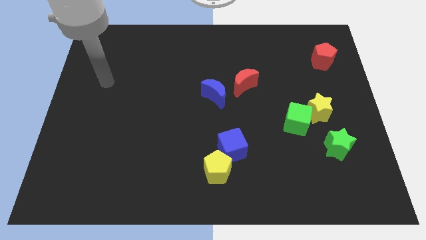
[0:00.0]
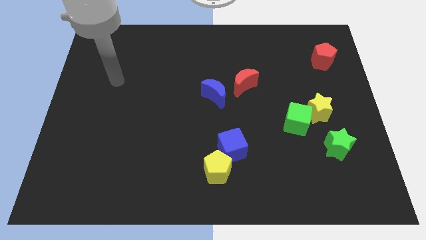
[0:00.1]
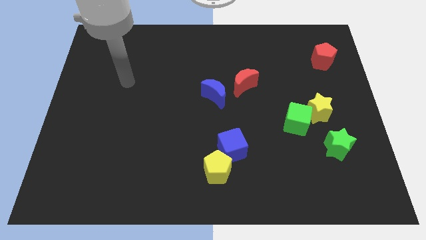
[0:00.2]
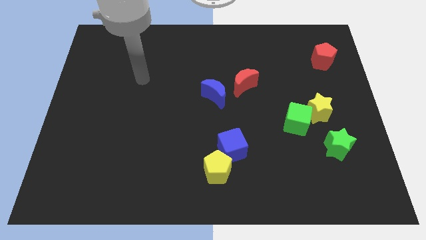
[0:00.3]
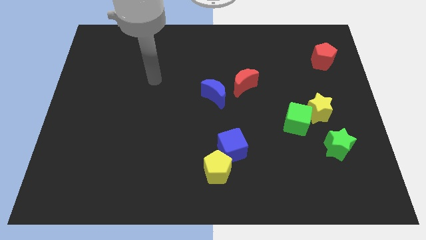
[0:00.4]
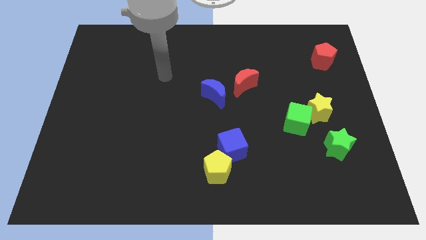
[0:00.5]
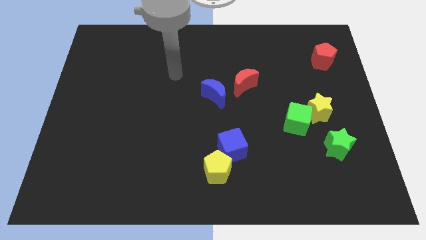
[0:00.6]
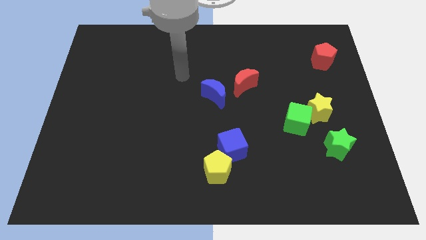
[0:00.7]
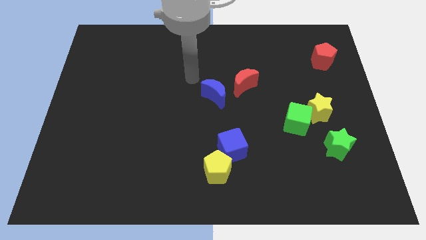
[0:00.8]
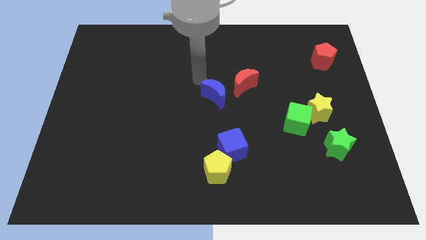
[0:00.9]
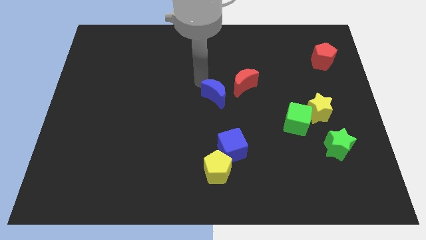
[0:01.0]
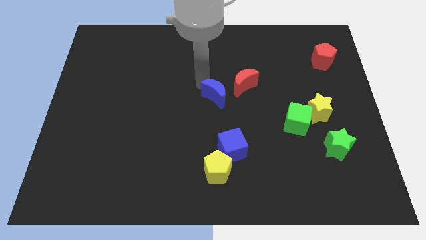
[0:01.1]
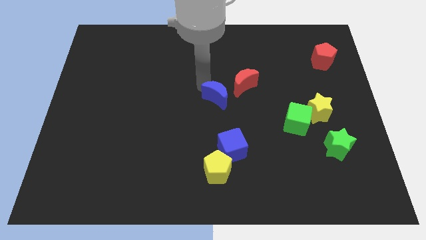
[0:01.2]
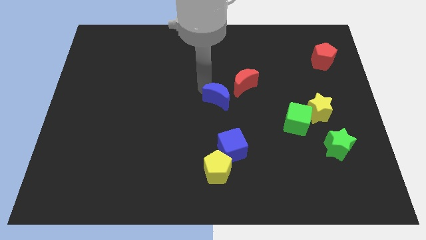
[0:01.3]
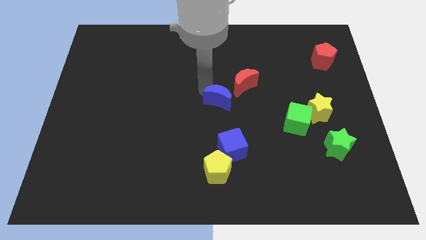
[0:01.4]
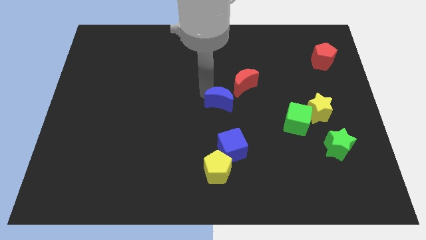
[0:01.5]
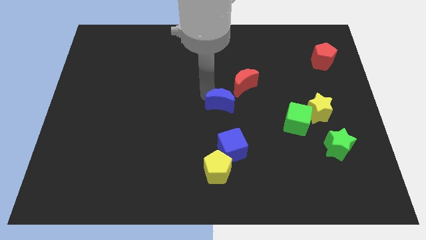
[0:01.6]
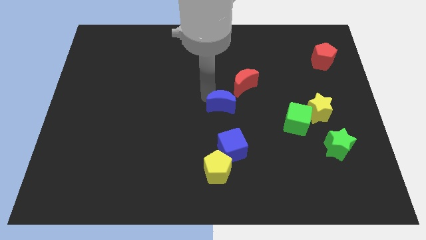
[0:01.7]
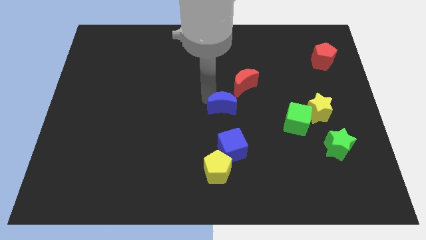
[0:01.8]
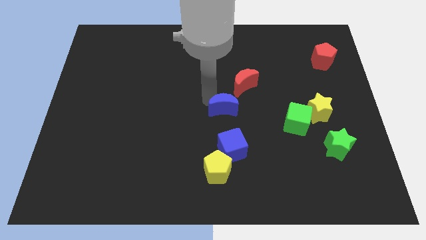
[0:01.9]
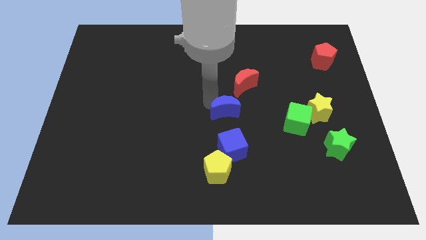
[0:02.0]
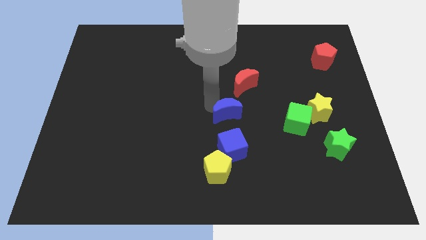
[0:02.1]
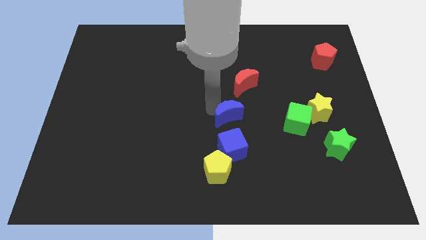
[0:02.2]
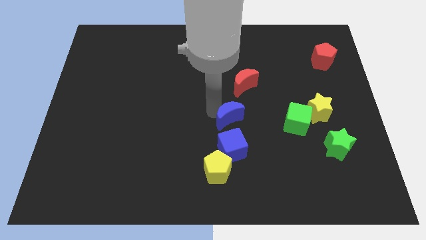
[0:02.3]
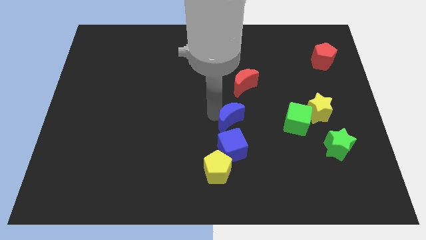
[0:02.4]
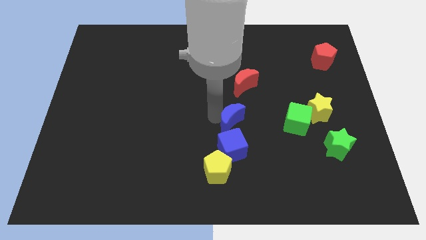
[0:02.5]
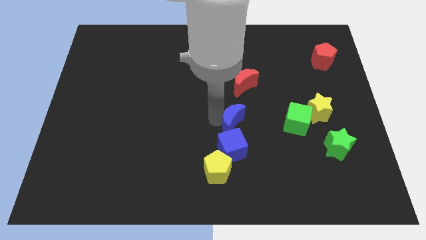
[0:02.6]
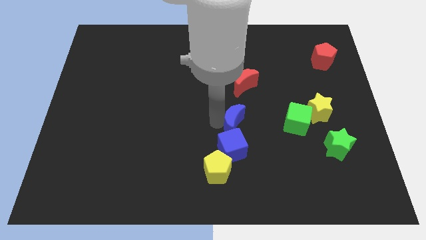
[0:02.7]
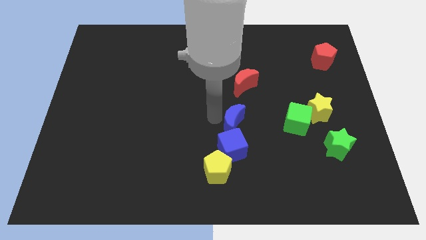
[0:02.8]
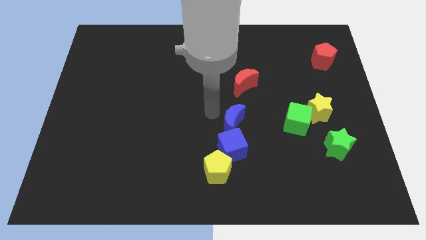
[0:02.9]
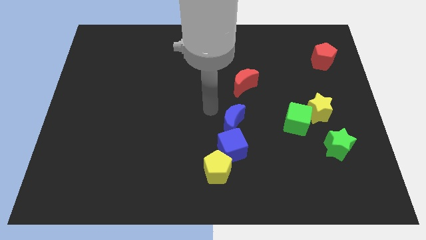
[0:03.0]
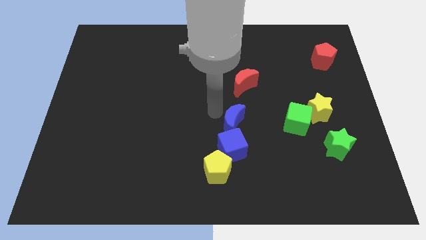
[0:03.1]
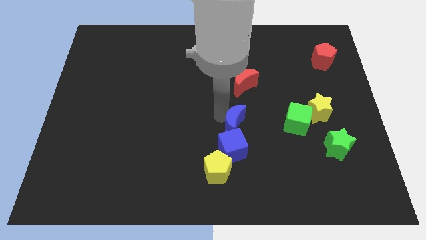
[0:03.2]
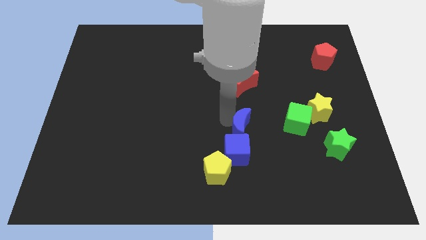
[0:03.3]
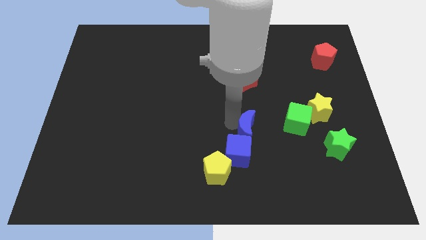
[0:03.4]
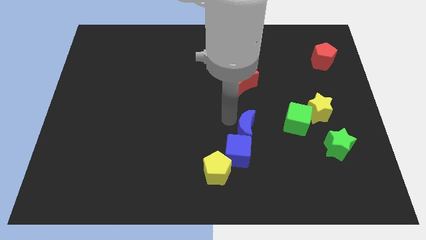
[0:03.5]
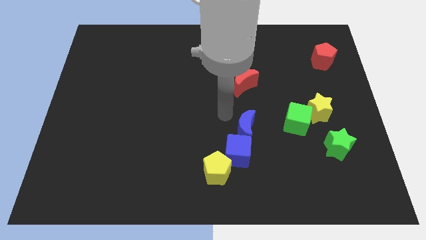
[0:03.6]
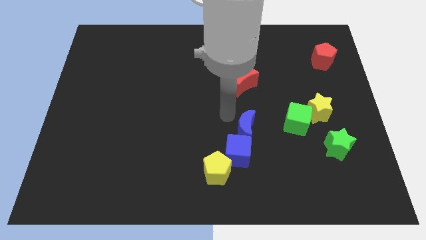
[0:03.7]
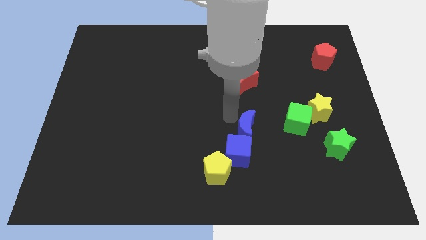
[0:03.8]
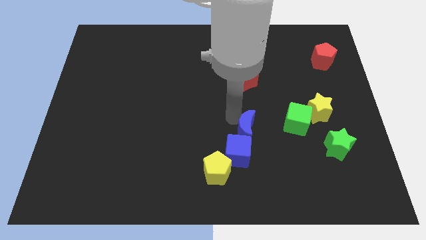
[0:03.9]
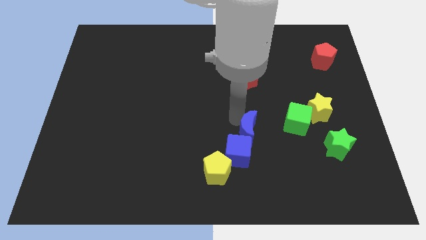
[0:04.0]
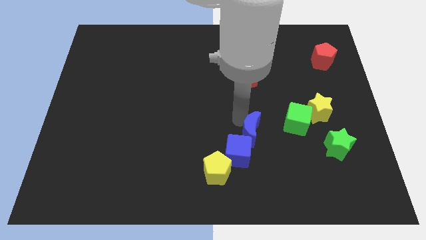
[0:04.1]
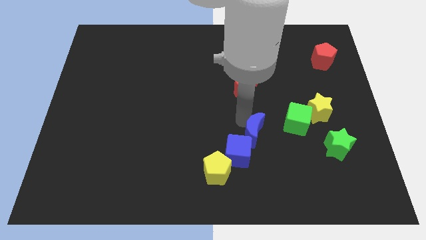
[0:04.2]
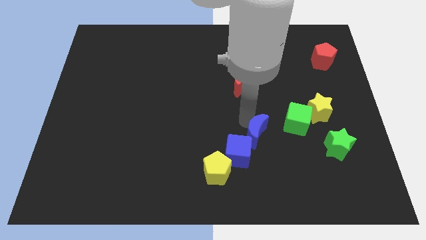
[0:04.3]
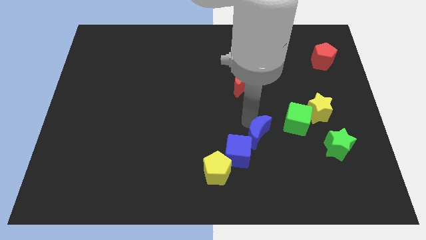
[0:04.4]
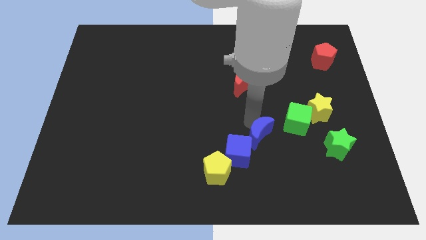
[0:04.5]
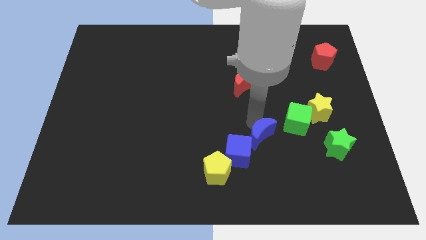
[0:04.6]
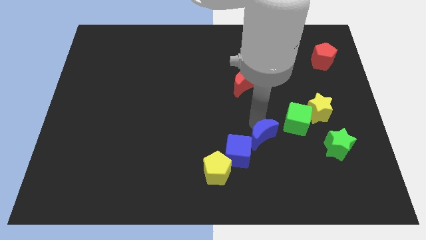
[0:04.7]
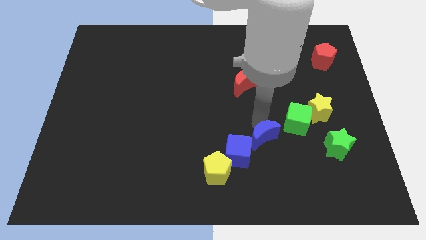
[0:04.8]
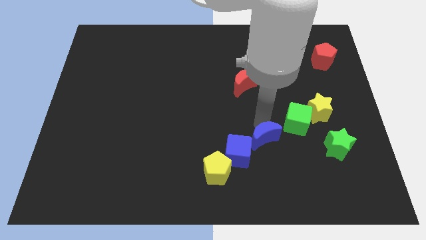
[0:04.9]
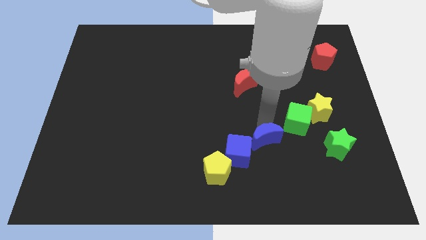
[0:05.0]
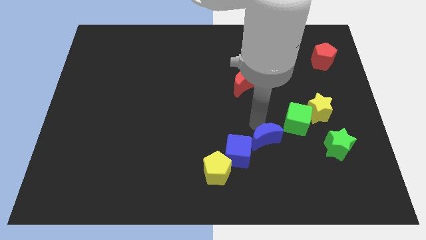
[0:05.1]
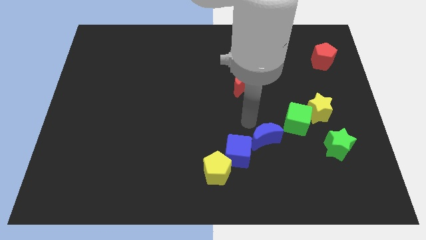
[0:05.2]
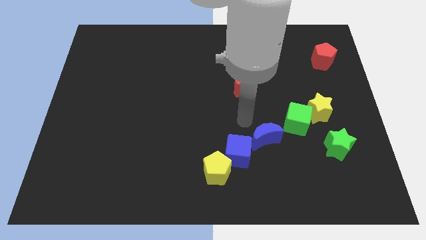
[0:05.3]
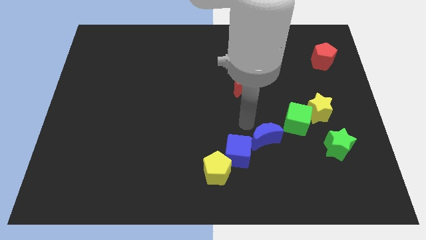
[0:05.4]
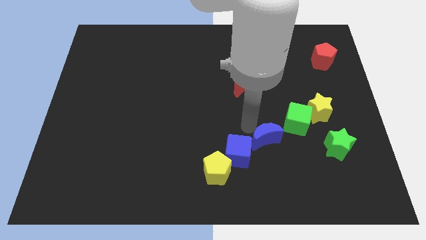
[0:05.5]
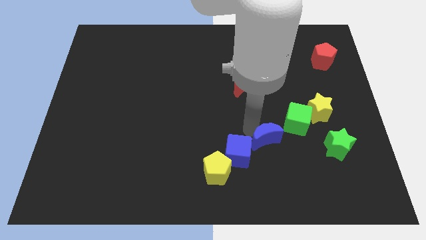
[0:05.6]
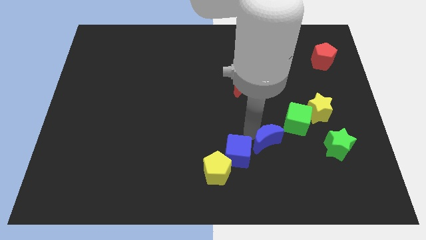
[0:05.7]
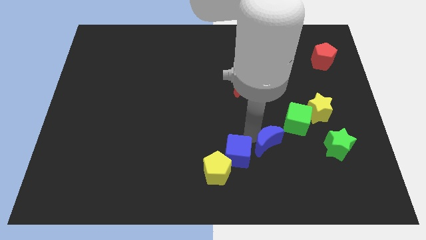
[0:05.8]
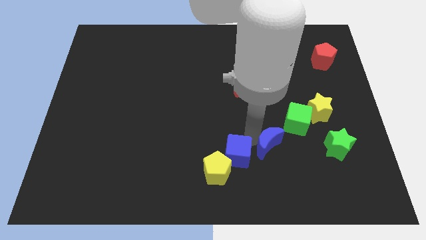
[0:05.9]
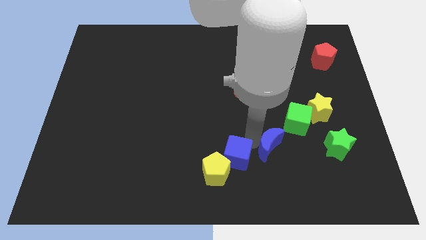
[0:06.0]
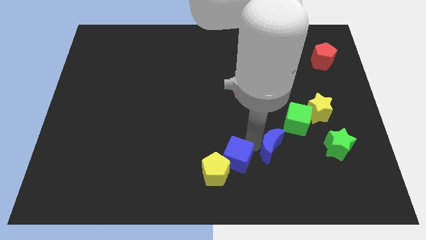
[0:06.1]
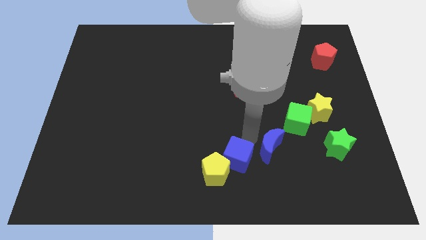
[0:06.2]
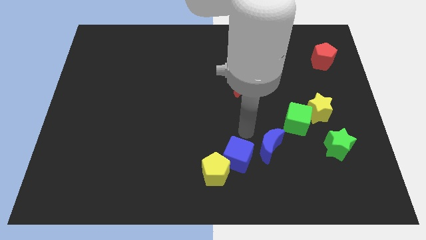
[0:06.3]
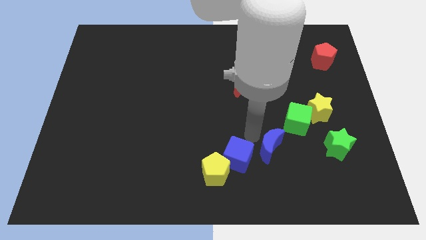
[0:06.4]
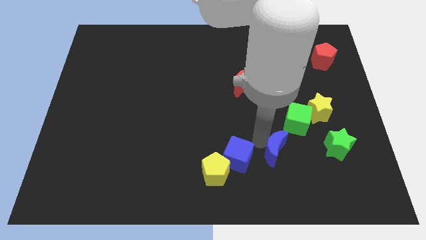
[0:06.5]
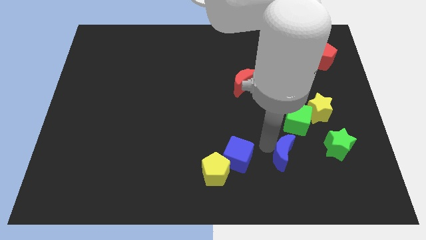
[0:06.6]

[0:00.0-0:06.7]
slide the blue moon diagonally down and right

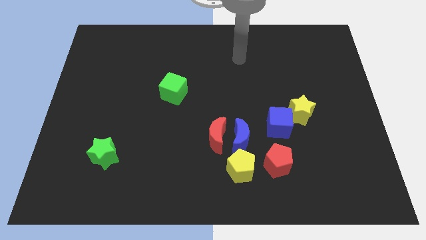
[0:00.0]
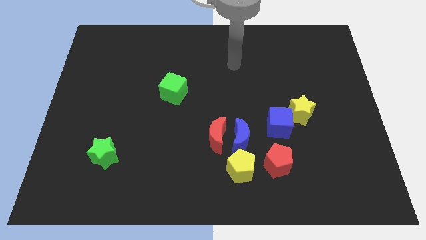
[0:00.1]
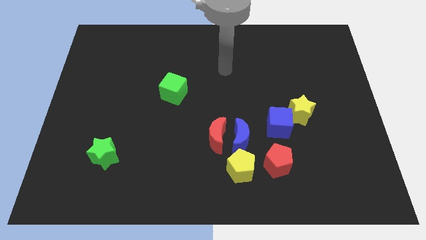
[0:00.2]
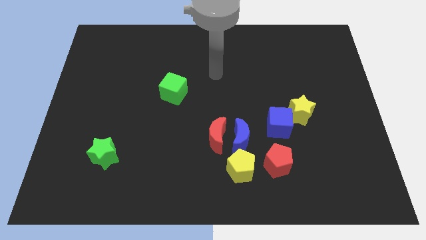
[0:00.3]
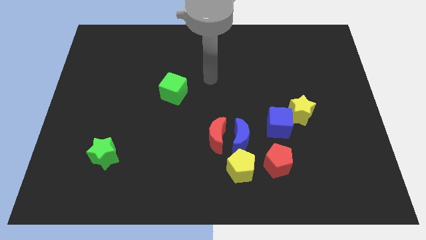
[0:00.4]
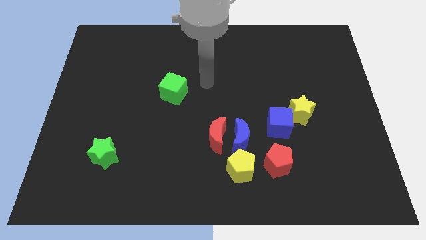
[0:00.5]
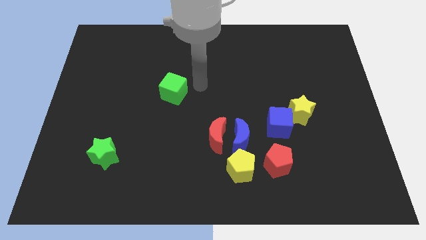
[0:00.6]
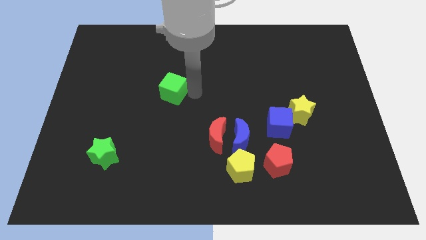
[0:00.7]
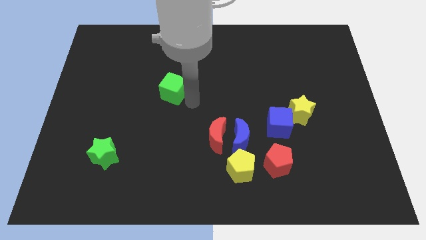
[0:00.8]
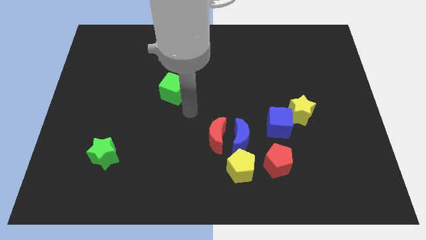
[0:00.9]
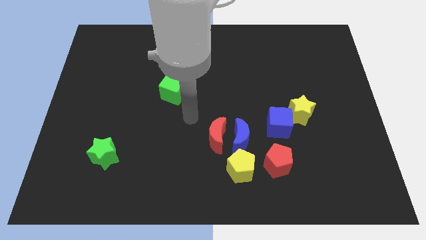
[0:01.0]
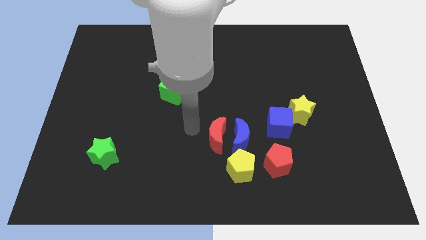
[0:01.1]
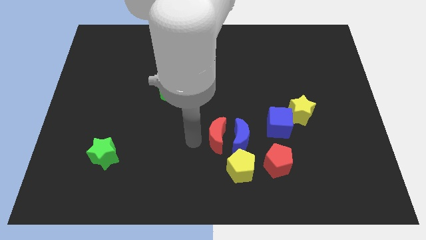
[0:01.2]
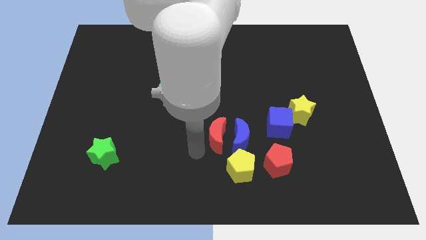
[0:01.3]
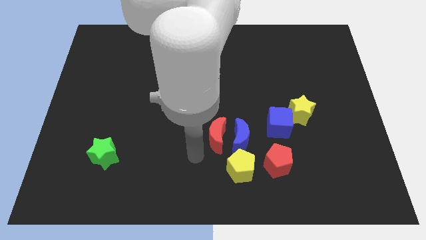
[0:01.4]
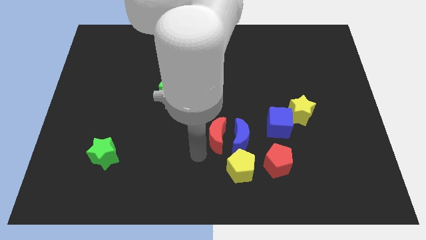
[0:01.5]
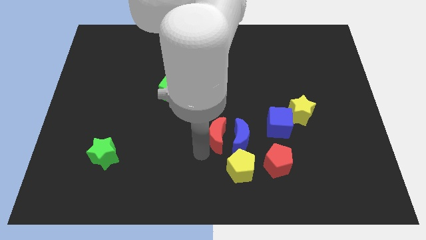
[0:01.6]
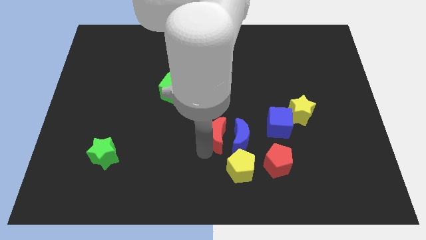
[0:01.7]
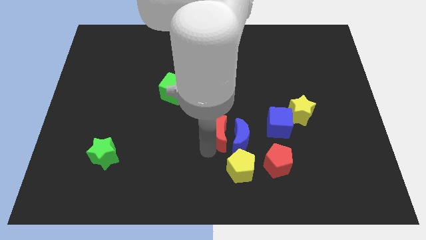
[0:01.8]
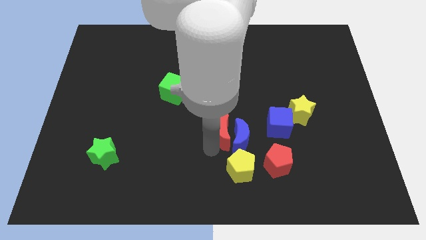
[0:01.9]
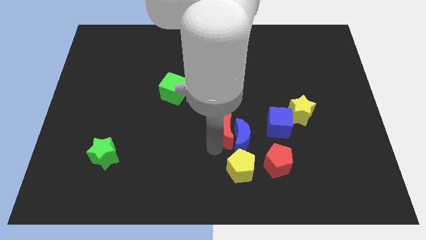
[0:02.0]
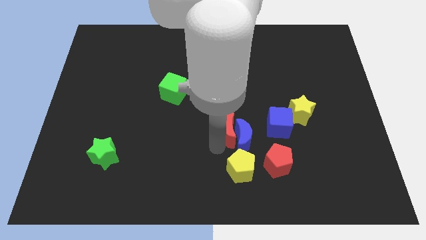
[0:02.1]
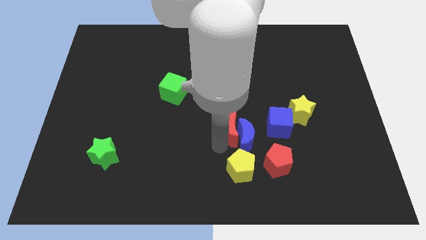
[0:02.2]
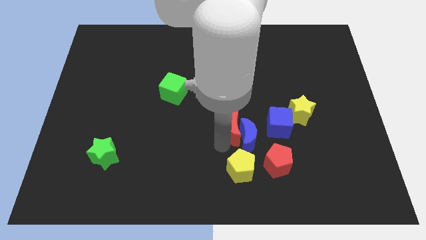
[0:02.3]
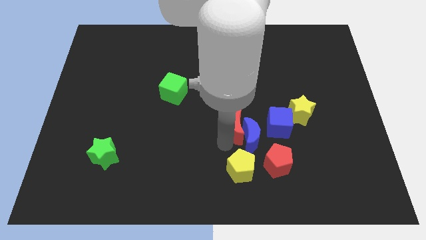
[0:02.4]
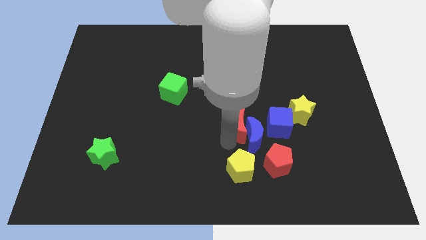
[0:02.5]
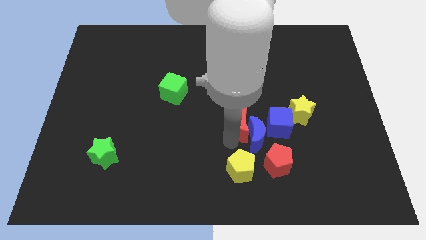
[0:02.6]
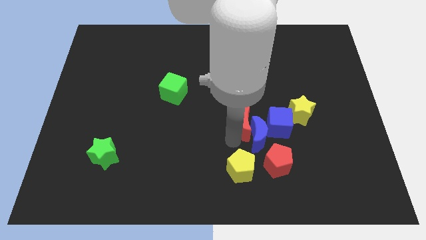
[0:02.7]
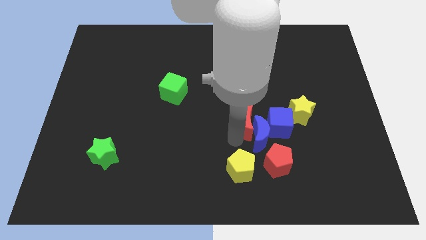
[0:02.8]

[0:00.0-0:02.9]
slide the red moon slightly upwards and to the right diagonally
